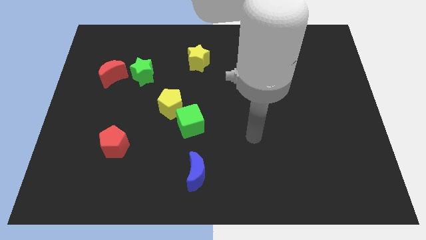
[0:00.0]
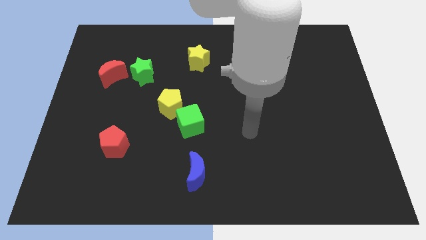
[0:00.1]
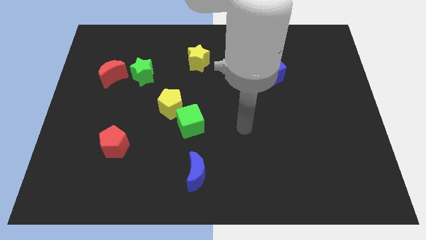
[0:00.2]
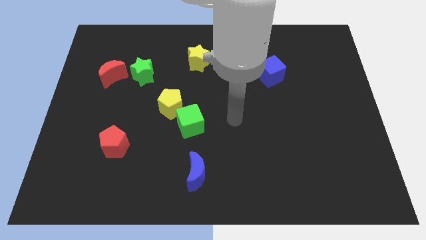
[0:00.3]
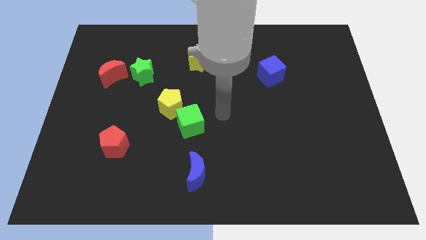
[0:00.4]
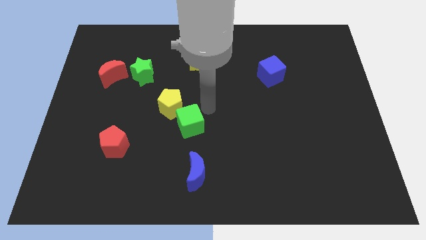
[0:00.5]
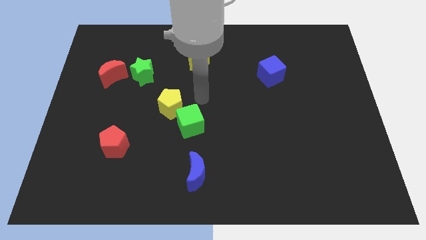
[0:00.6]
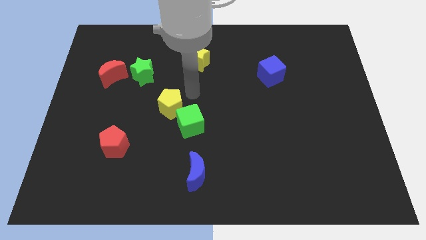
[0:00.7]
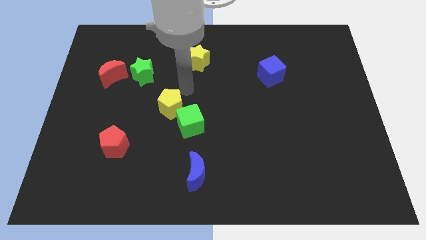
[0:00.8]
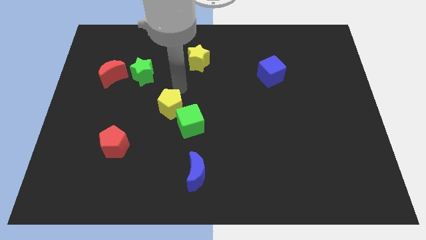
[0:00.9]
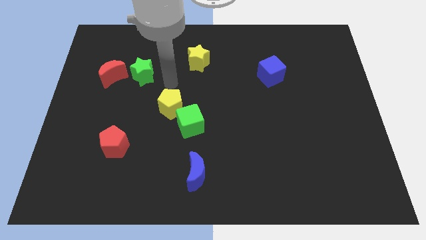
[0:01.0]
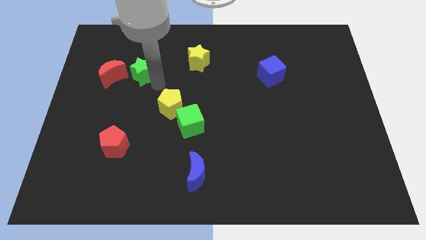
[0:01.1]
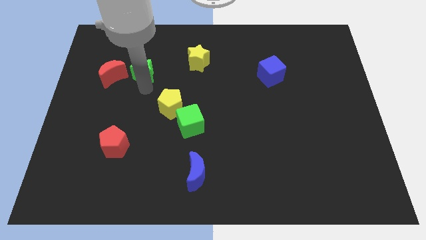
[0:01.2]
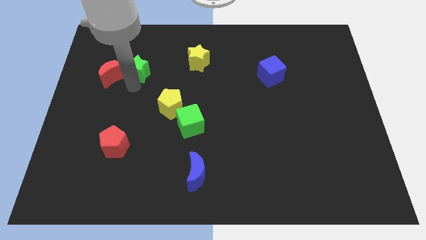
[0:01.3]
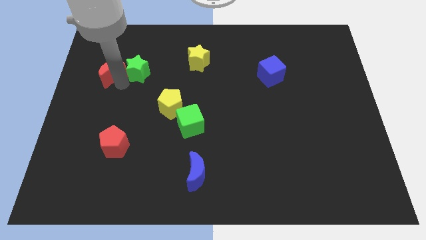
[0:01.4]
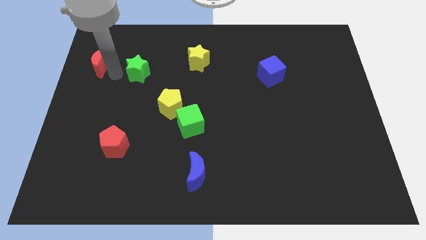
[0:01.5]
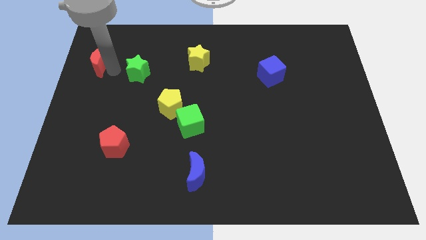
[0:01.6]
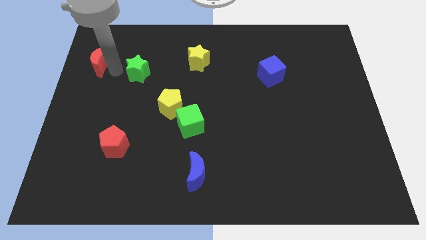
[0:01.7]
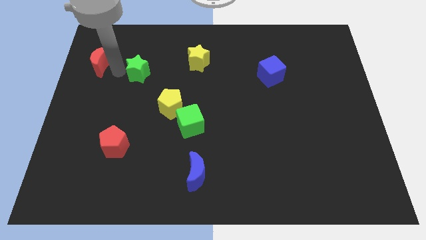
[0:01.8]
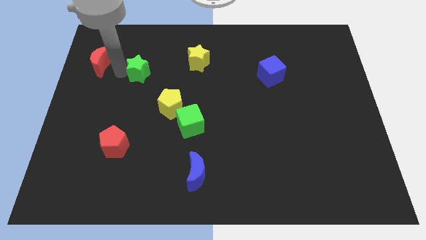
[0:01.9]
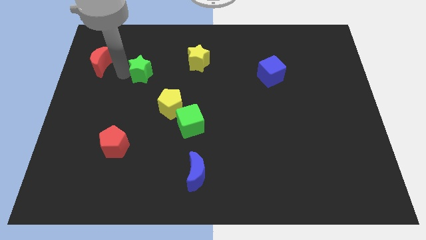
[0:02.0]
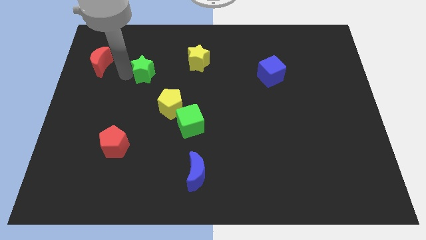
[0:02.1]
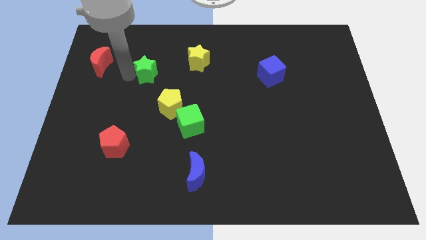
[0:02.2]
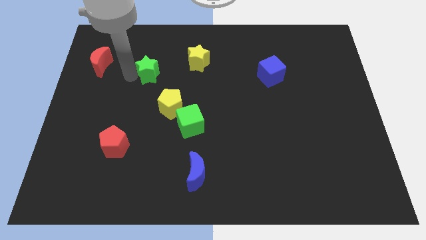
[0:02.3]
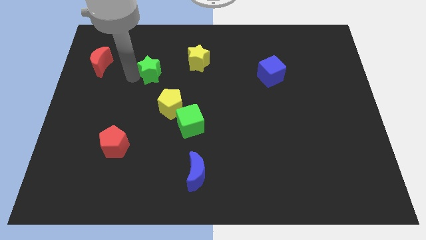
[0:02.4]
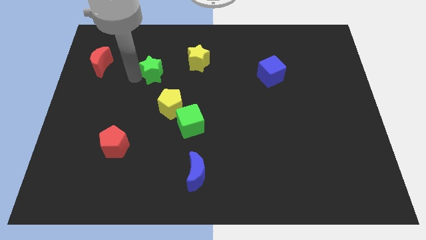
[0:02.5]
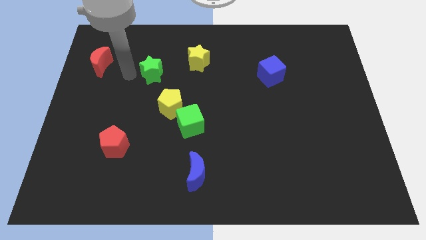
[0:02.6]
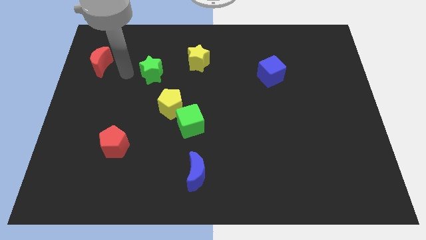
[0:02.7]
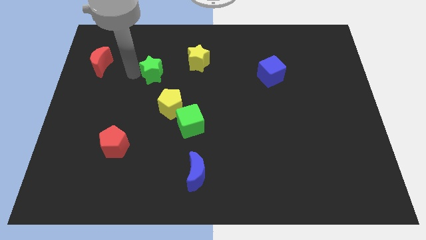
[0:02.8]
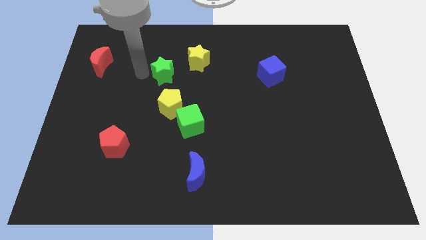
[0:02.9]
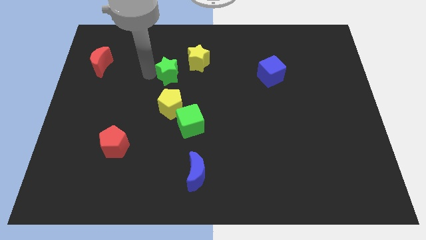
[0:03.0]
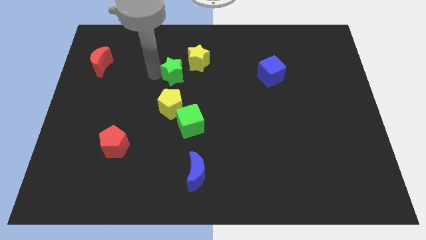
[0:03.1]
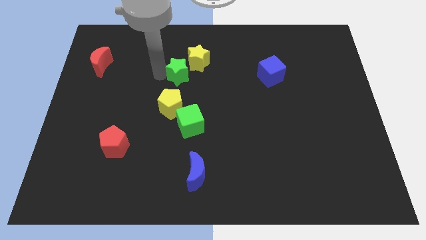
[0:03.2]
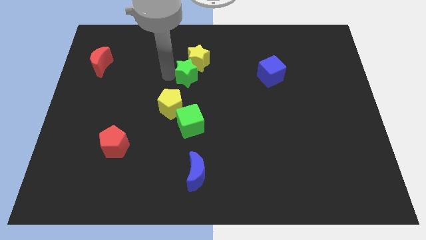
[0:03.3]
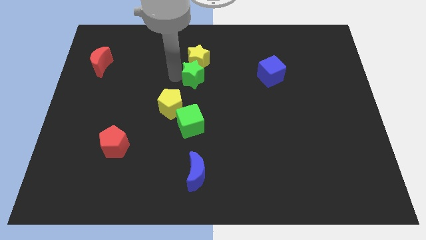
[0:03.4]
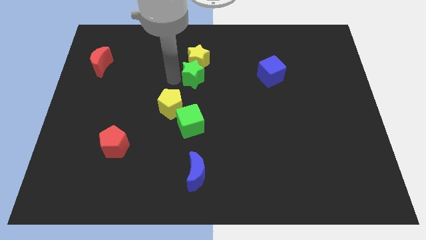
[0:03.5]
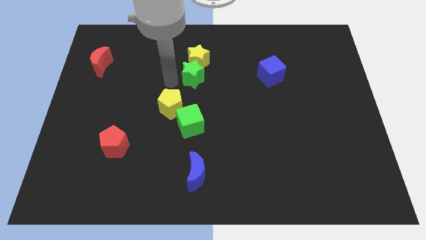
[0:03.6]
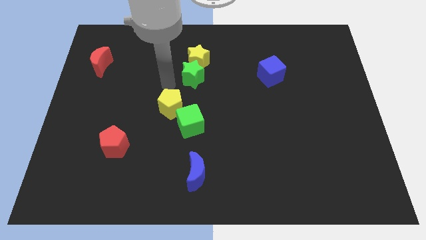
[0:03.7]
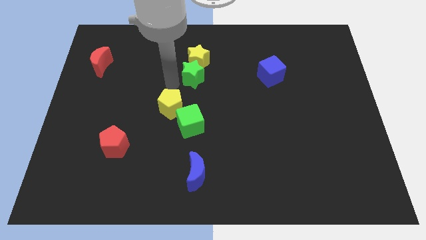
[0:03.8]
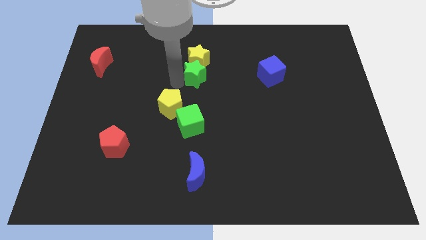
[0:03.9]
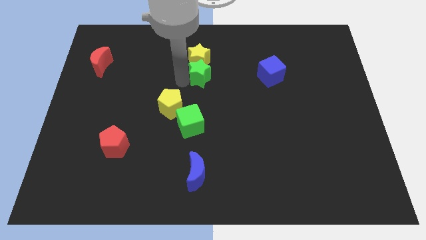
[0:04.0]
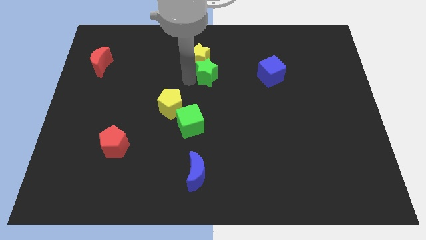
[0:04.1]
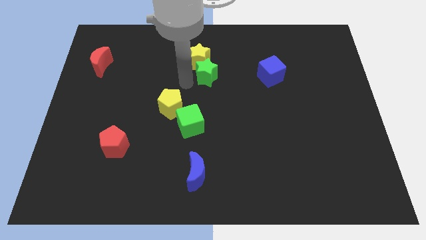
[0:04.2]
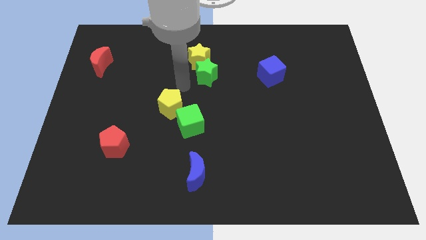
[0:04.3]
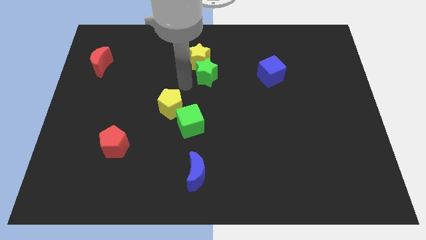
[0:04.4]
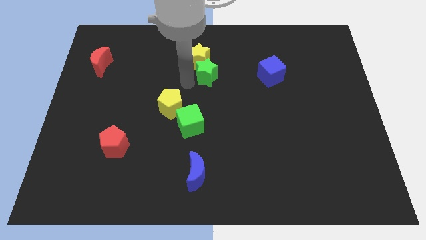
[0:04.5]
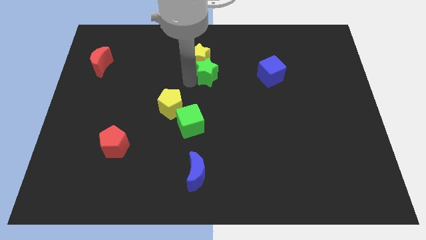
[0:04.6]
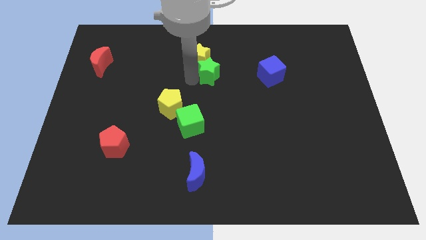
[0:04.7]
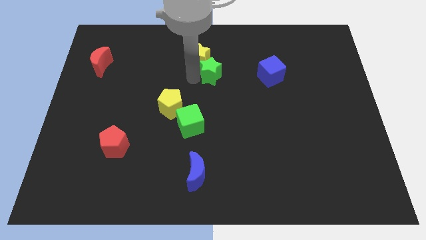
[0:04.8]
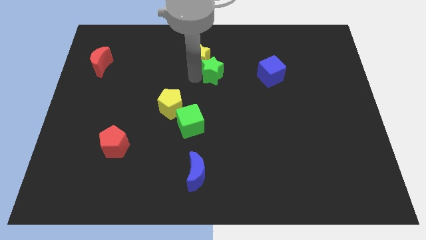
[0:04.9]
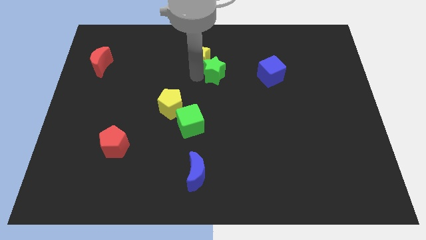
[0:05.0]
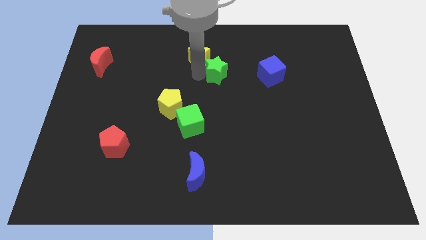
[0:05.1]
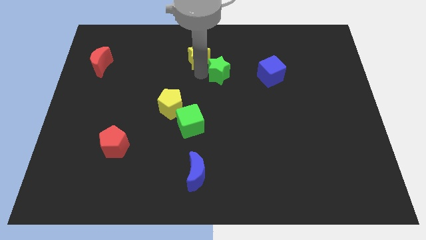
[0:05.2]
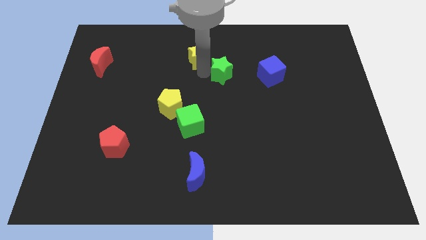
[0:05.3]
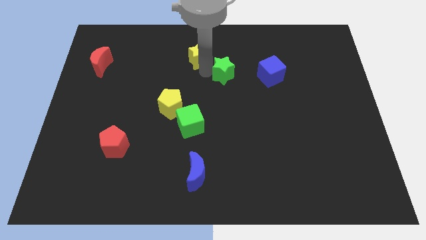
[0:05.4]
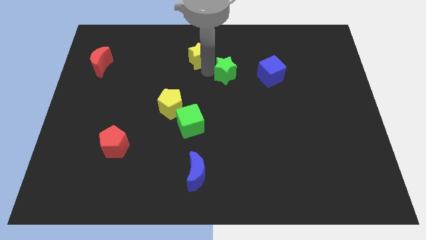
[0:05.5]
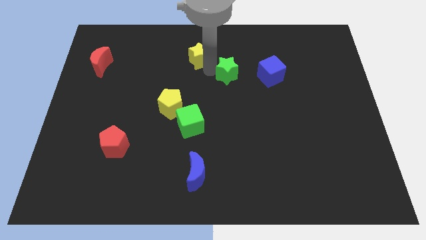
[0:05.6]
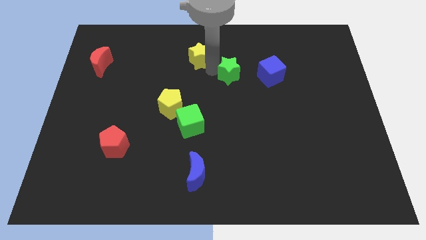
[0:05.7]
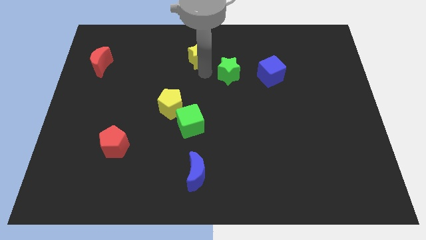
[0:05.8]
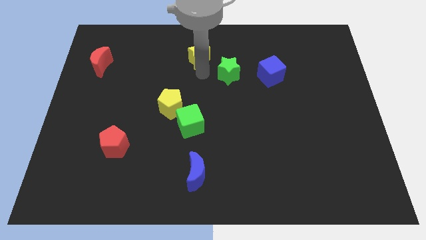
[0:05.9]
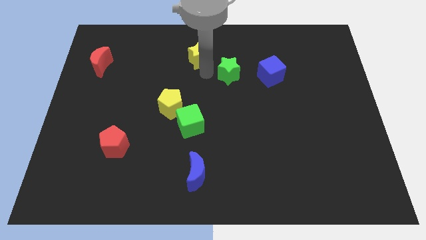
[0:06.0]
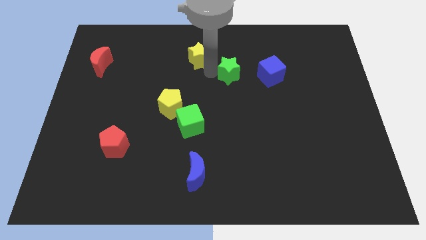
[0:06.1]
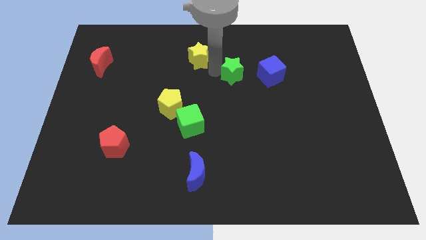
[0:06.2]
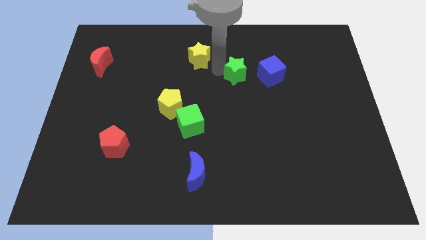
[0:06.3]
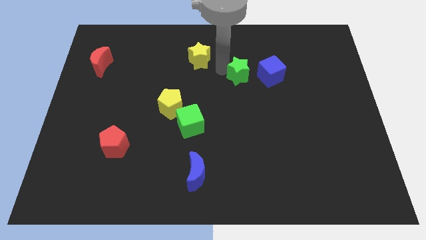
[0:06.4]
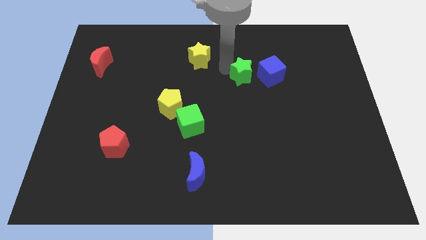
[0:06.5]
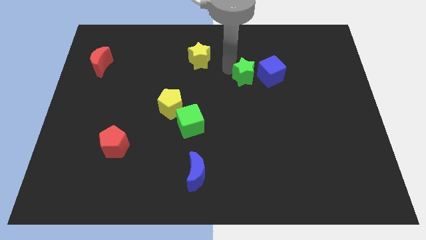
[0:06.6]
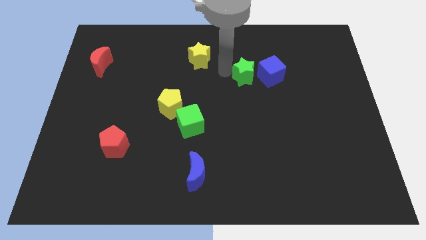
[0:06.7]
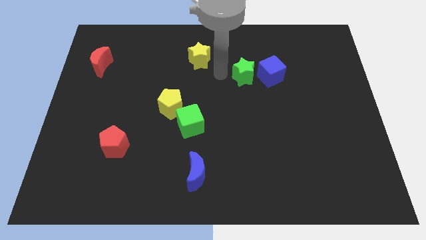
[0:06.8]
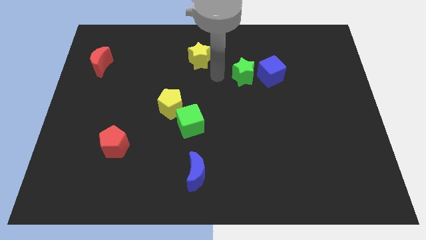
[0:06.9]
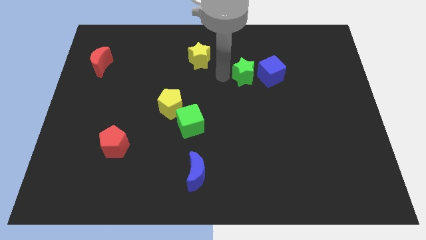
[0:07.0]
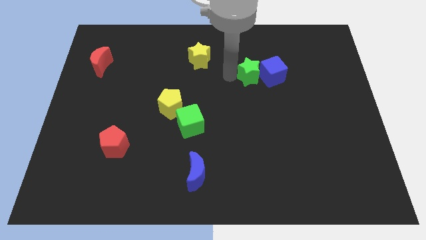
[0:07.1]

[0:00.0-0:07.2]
slide the green star to the blue cube
